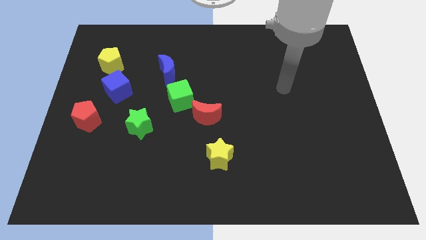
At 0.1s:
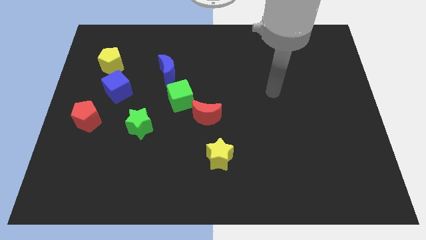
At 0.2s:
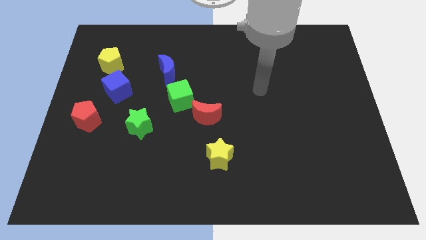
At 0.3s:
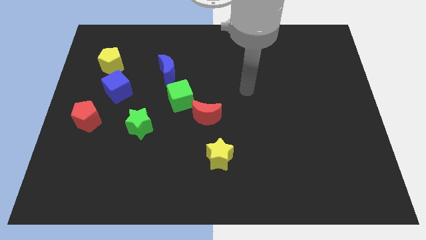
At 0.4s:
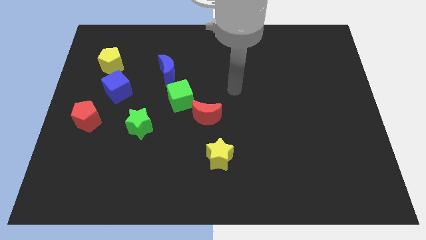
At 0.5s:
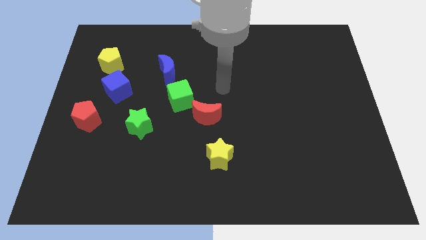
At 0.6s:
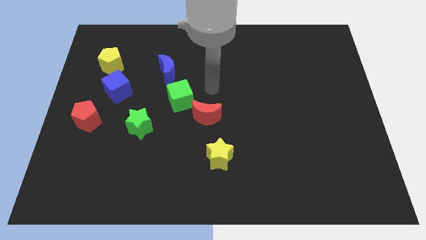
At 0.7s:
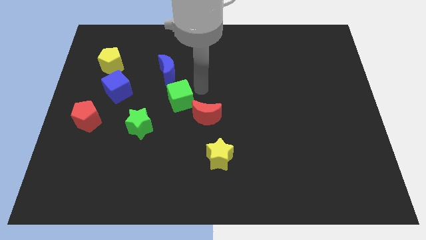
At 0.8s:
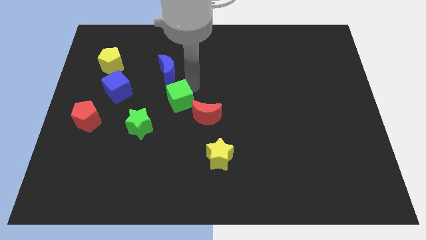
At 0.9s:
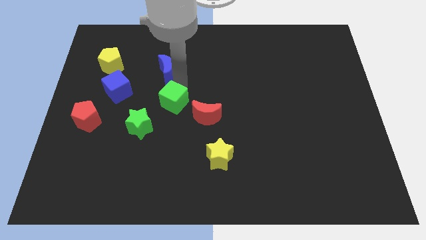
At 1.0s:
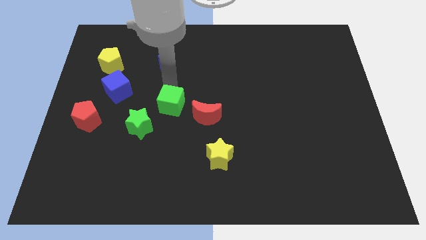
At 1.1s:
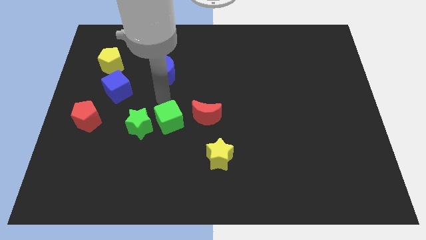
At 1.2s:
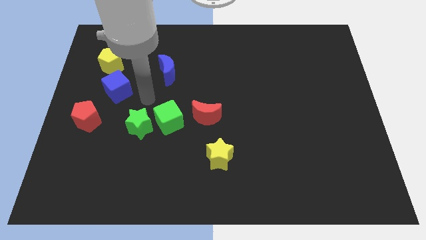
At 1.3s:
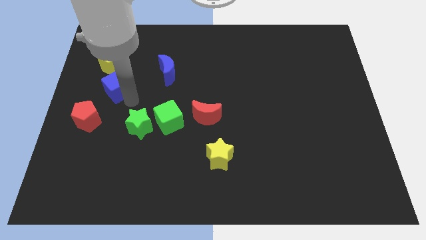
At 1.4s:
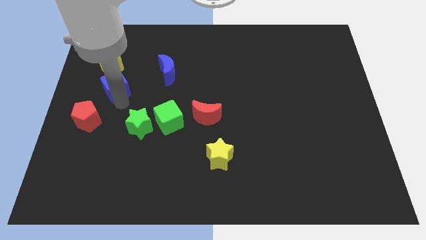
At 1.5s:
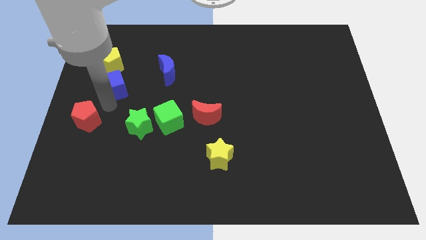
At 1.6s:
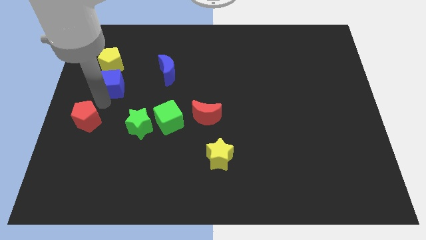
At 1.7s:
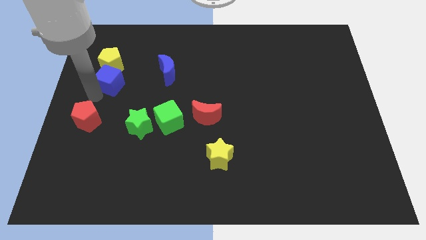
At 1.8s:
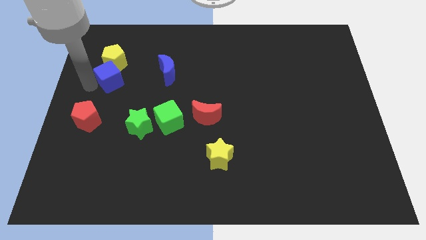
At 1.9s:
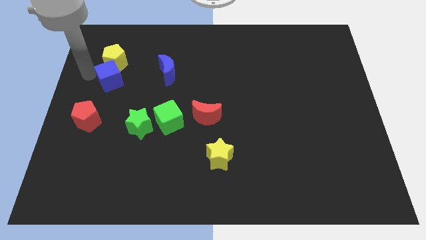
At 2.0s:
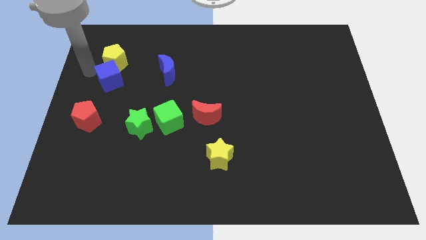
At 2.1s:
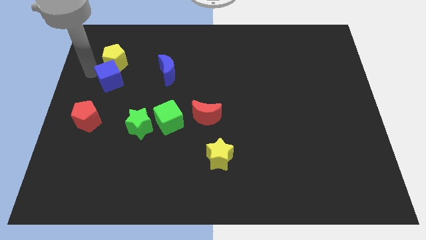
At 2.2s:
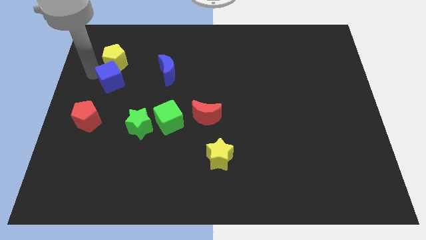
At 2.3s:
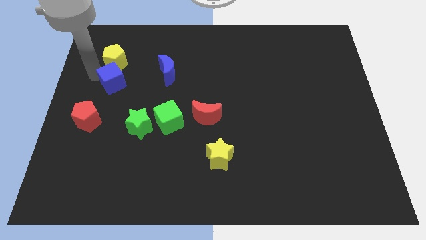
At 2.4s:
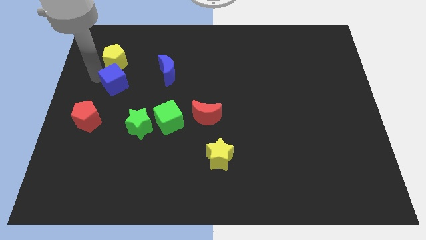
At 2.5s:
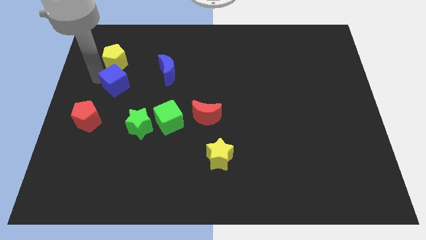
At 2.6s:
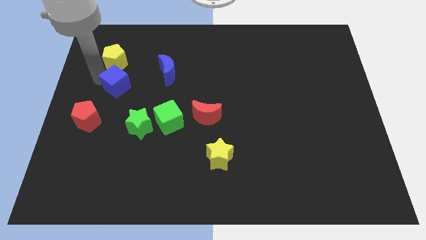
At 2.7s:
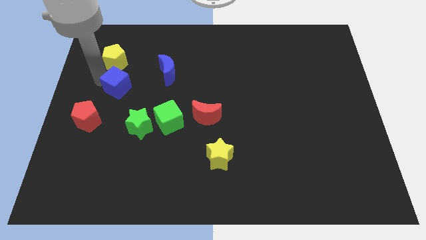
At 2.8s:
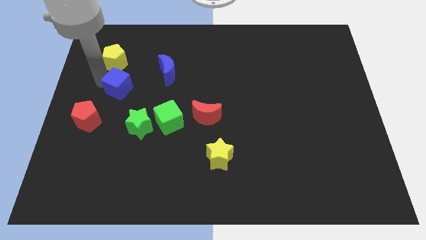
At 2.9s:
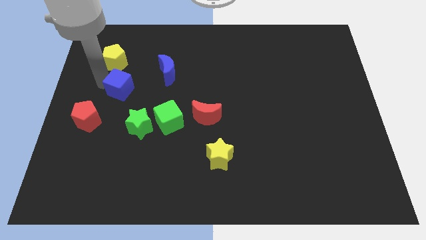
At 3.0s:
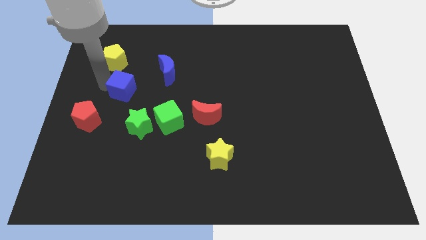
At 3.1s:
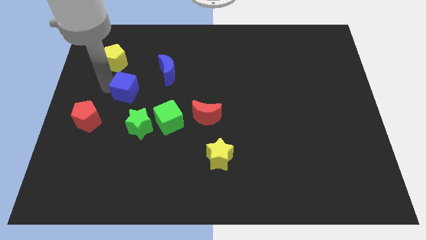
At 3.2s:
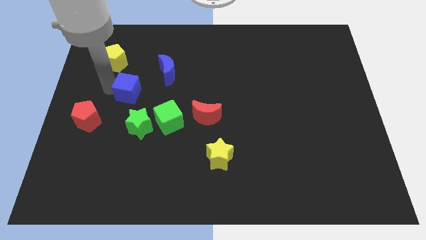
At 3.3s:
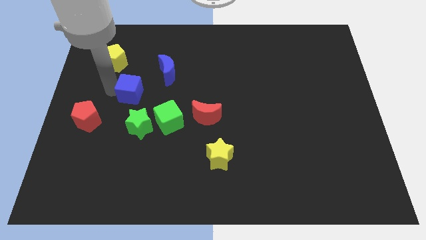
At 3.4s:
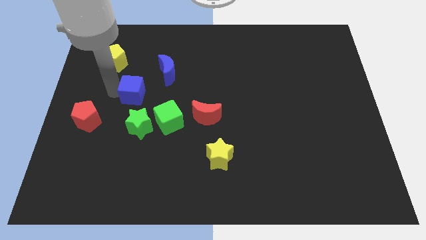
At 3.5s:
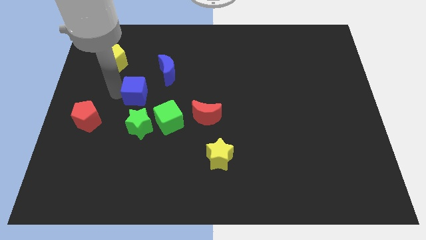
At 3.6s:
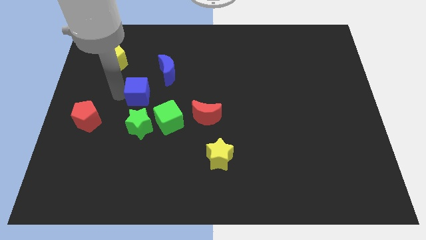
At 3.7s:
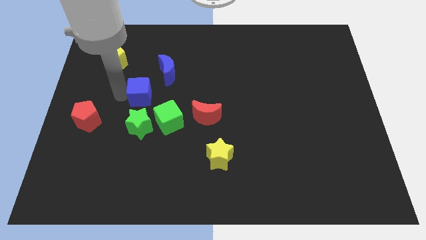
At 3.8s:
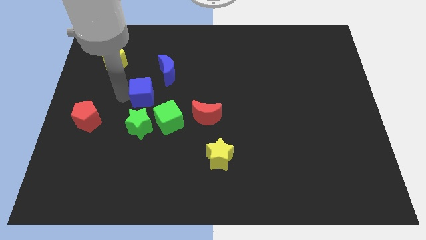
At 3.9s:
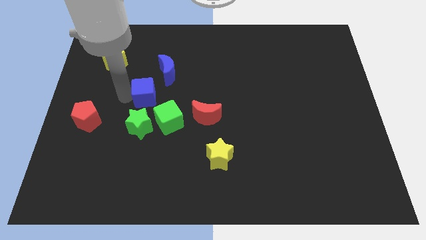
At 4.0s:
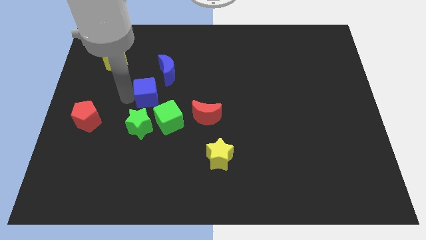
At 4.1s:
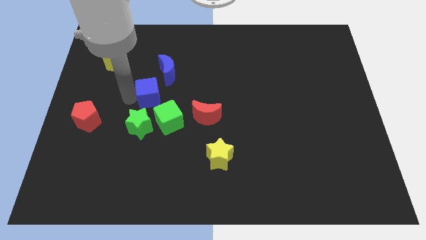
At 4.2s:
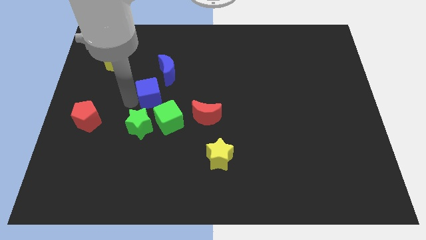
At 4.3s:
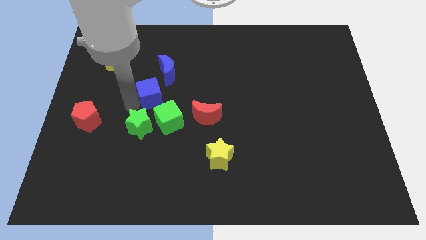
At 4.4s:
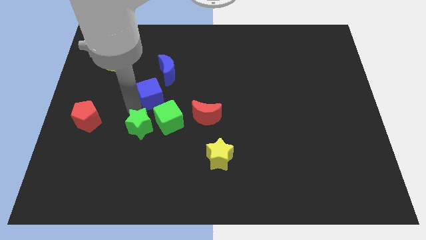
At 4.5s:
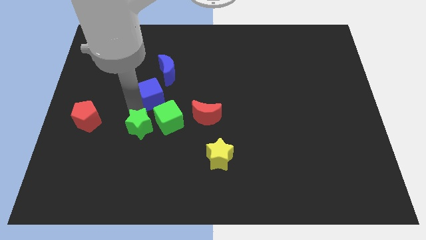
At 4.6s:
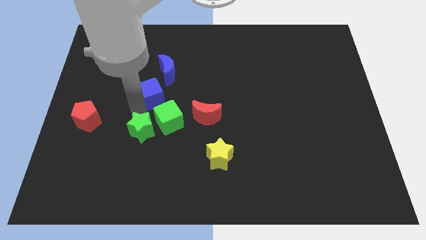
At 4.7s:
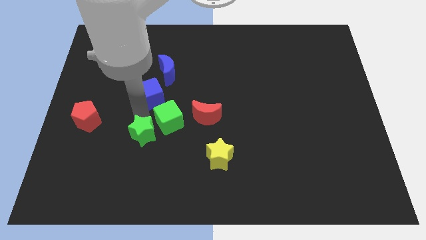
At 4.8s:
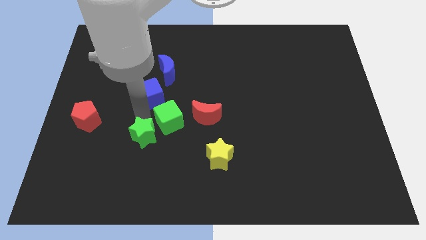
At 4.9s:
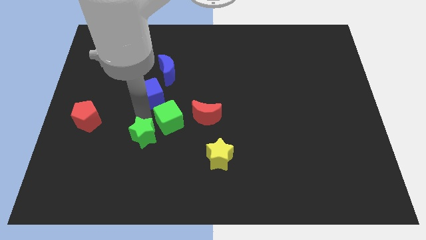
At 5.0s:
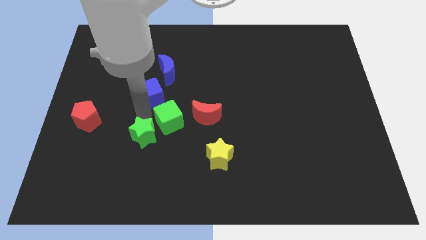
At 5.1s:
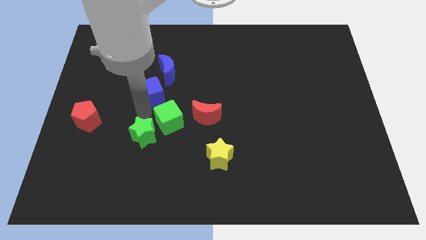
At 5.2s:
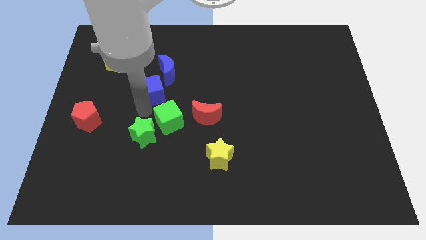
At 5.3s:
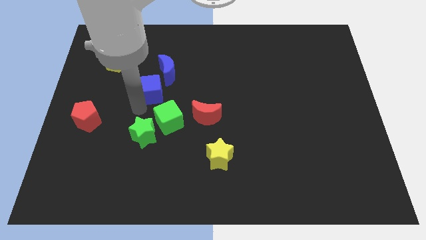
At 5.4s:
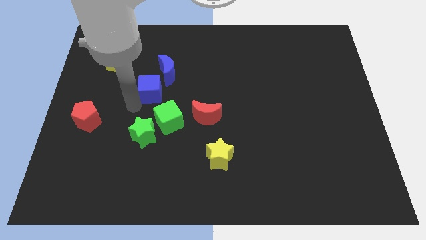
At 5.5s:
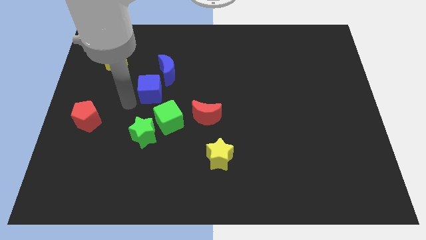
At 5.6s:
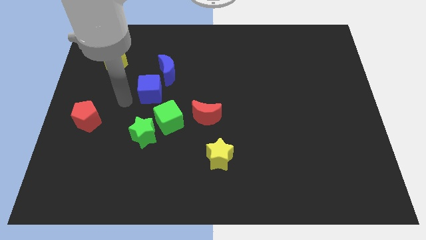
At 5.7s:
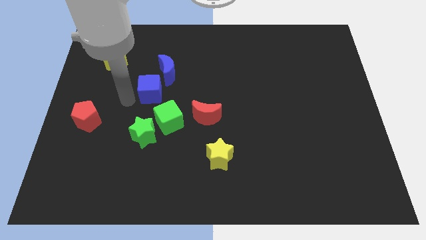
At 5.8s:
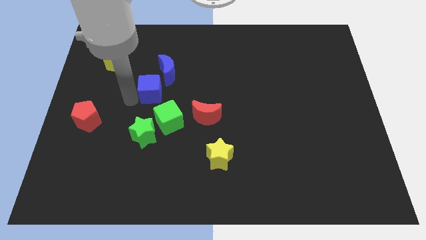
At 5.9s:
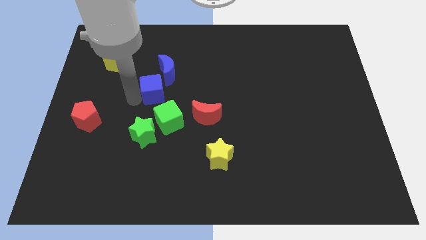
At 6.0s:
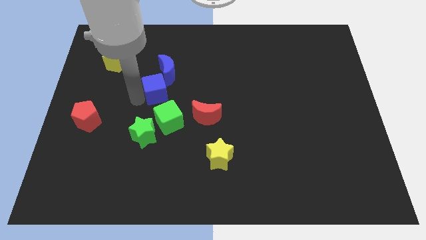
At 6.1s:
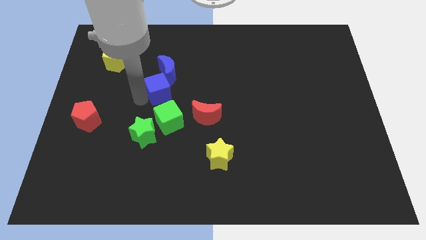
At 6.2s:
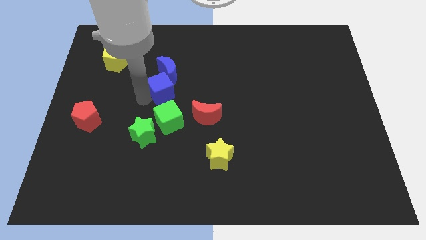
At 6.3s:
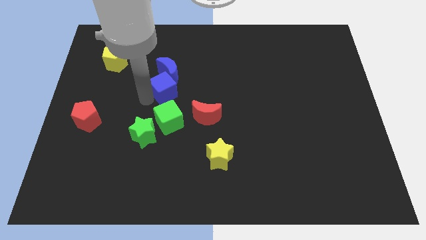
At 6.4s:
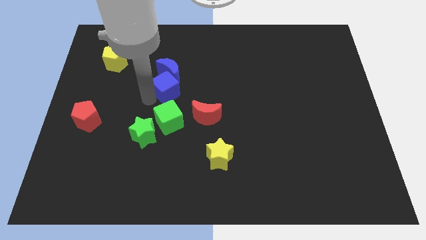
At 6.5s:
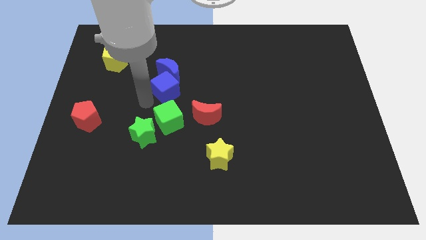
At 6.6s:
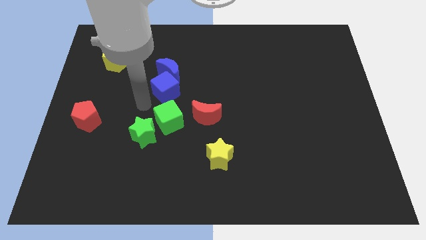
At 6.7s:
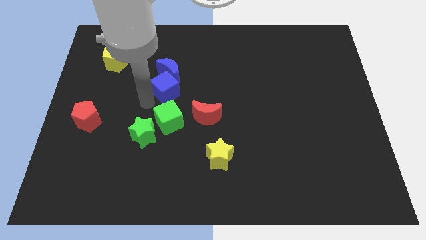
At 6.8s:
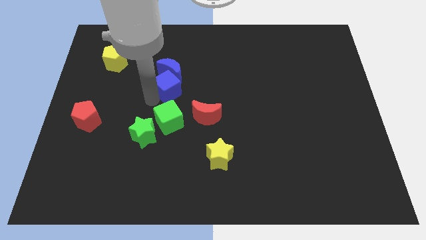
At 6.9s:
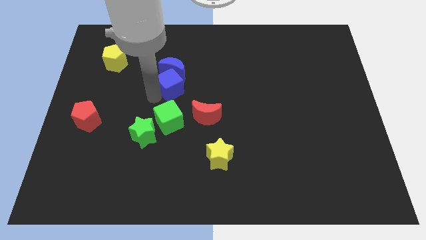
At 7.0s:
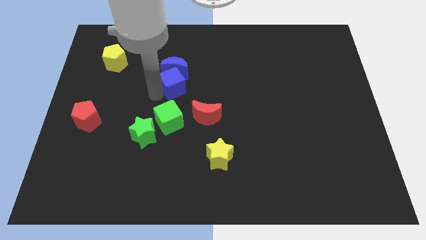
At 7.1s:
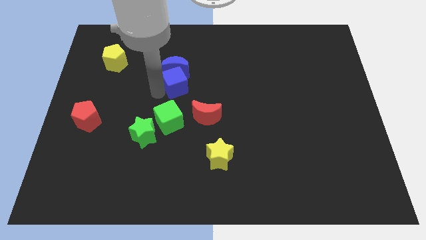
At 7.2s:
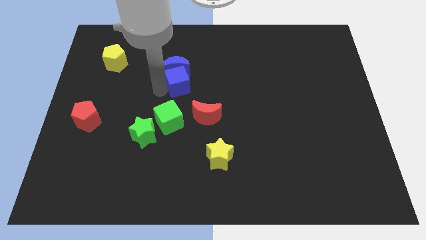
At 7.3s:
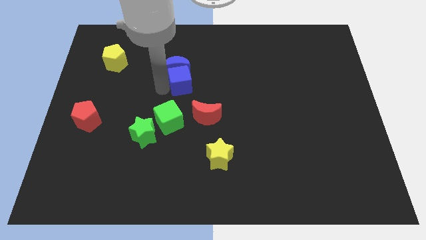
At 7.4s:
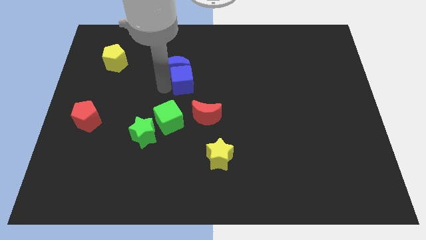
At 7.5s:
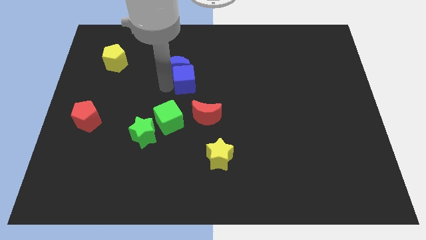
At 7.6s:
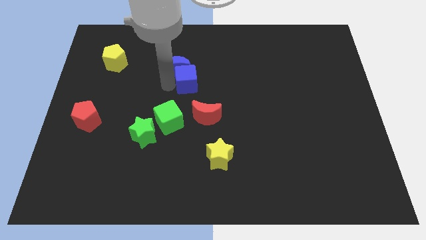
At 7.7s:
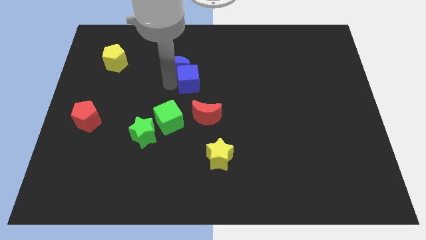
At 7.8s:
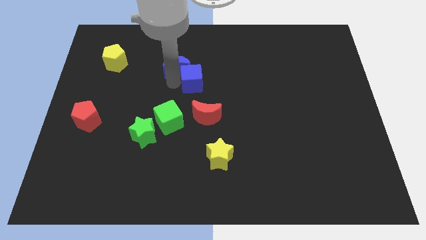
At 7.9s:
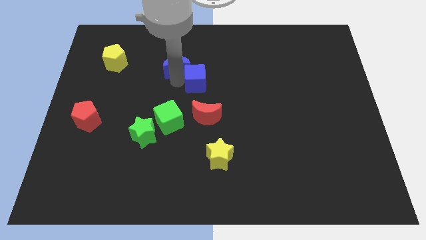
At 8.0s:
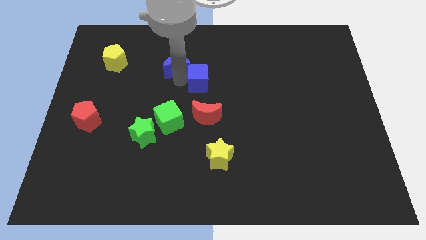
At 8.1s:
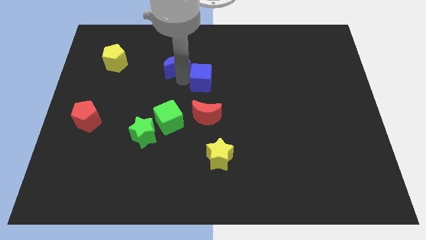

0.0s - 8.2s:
push the blue cube to the right
